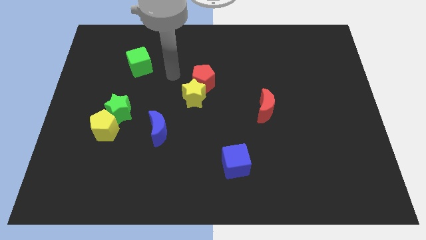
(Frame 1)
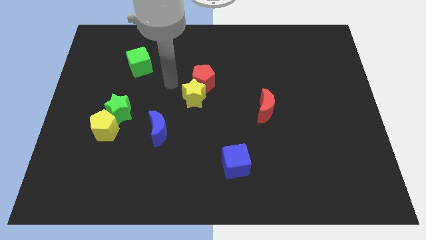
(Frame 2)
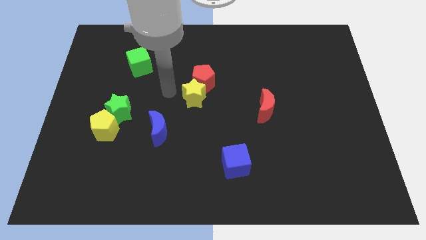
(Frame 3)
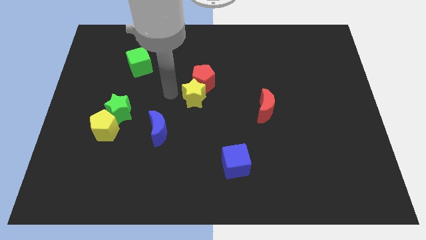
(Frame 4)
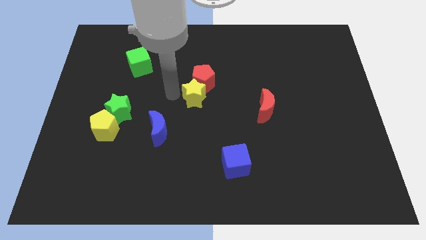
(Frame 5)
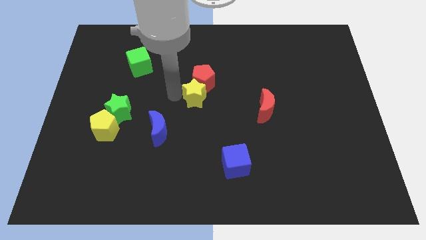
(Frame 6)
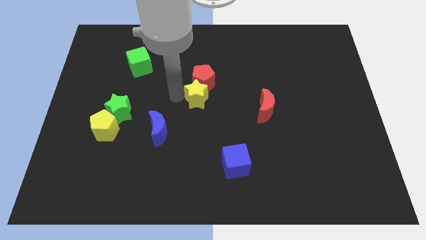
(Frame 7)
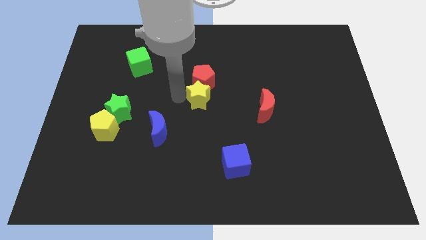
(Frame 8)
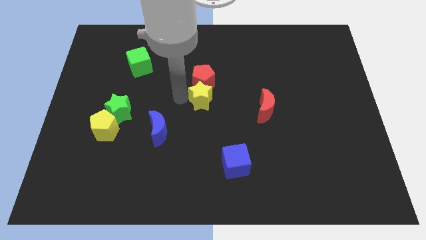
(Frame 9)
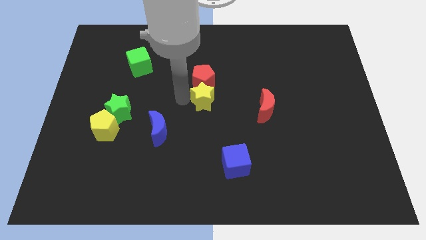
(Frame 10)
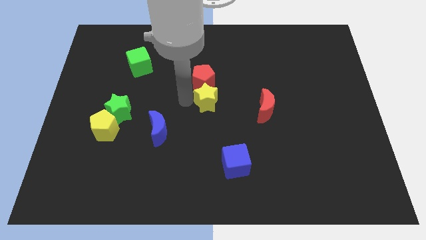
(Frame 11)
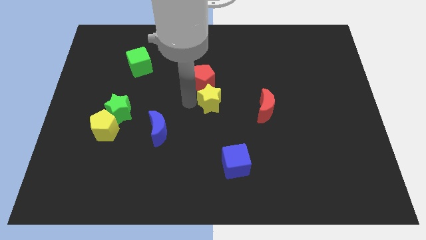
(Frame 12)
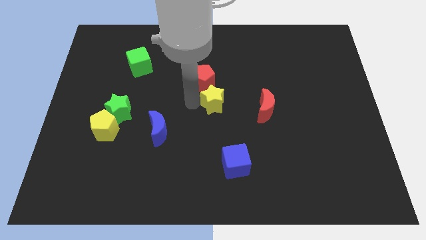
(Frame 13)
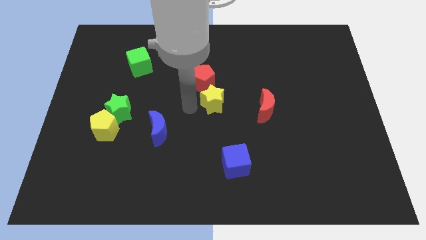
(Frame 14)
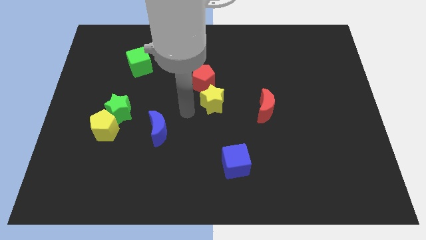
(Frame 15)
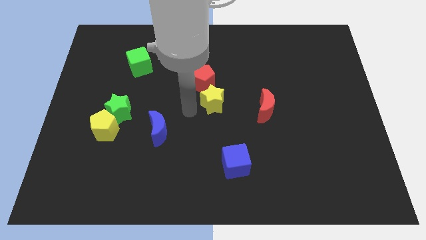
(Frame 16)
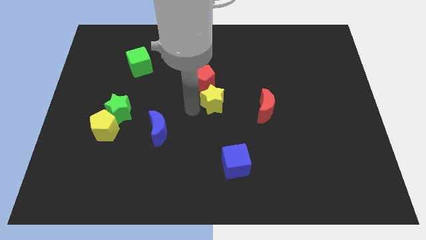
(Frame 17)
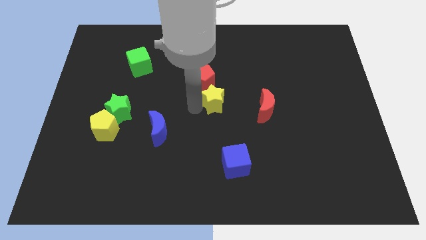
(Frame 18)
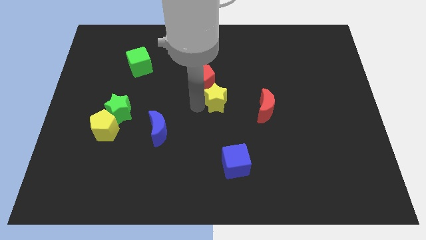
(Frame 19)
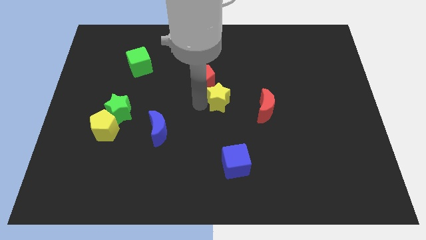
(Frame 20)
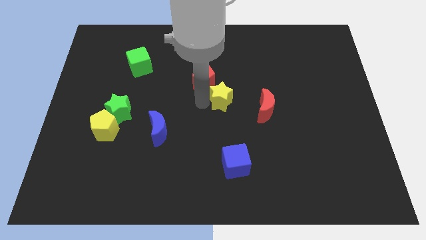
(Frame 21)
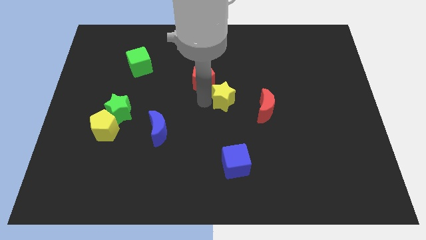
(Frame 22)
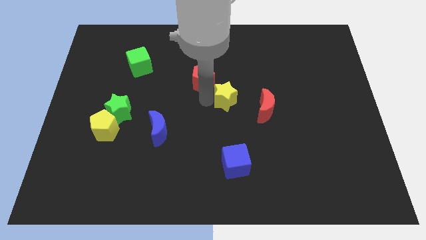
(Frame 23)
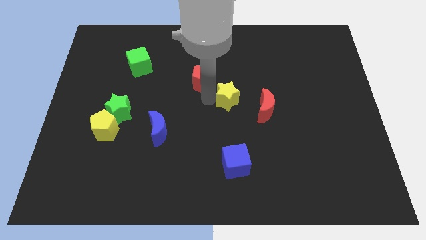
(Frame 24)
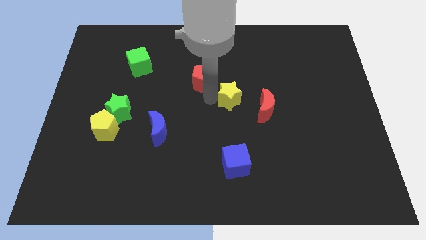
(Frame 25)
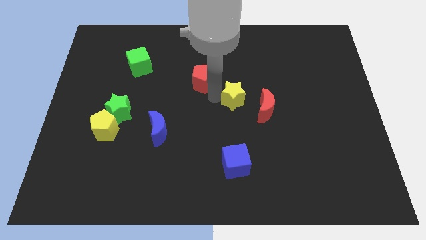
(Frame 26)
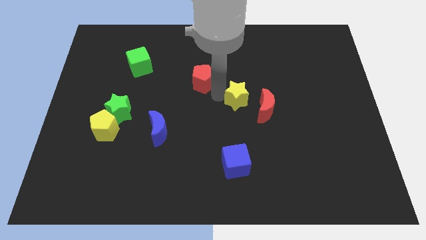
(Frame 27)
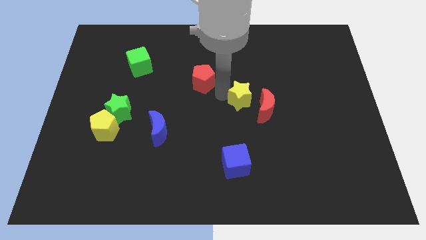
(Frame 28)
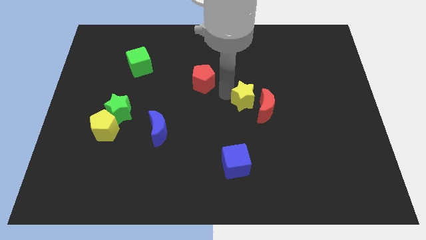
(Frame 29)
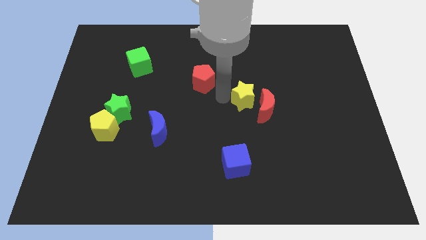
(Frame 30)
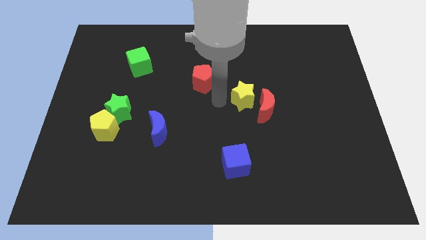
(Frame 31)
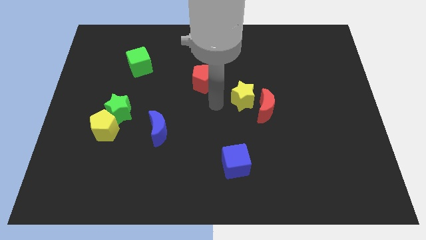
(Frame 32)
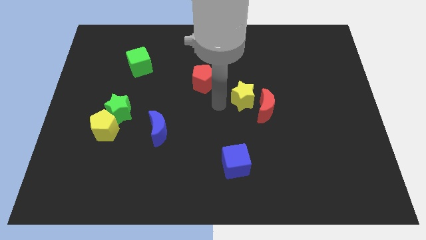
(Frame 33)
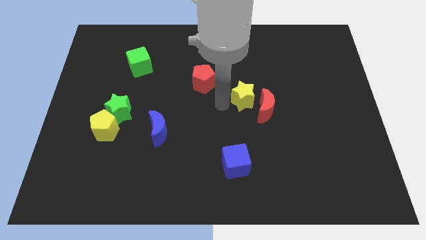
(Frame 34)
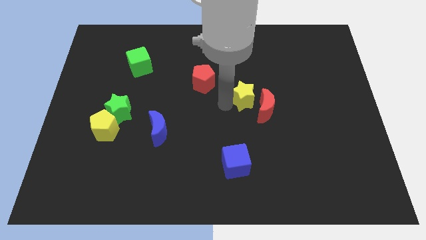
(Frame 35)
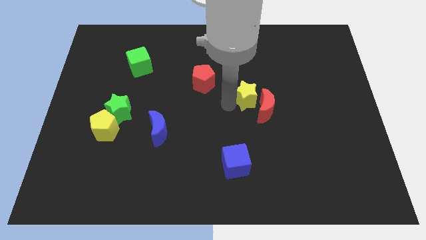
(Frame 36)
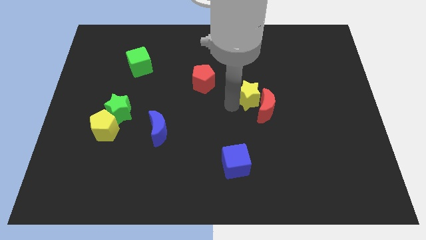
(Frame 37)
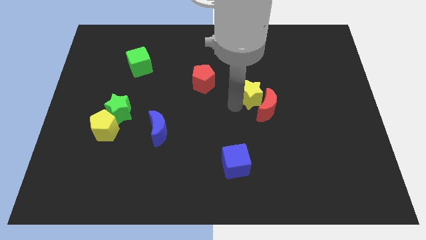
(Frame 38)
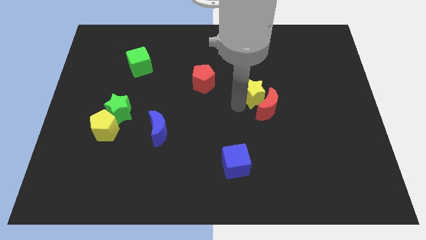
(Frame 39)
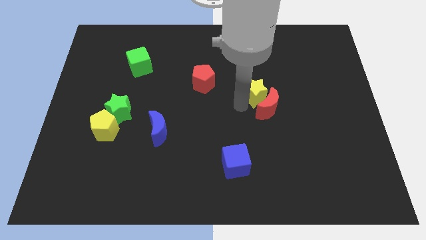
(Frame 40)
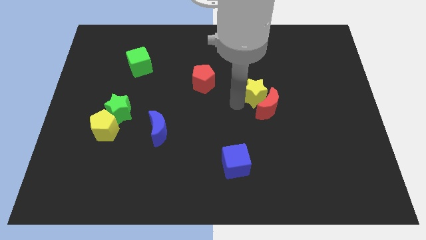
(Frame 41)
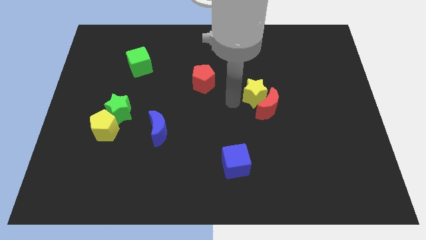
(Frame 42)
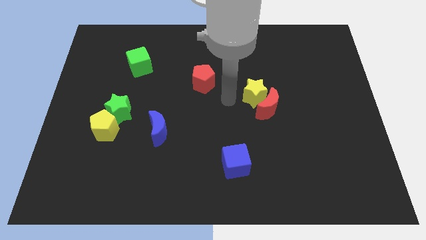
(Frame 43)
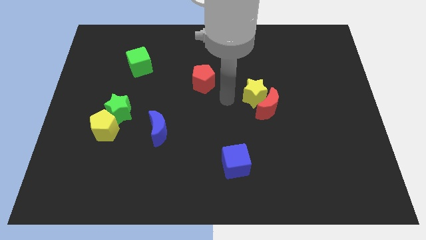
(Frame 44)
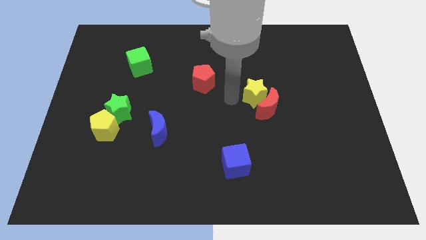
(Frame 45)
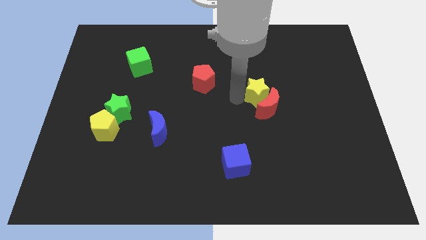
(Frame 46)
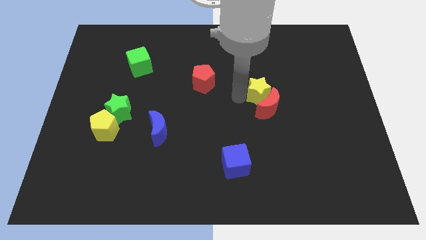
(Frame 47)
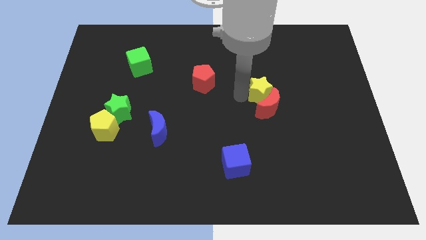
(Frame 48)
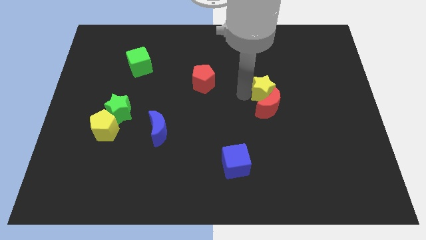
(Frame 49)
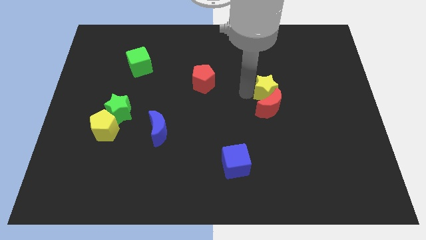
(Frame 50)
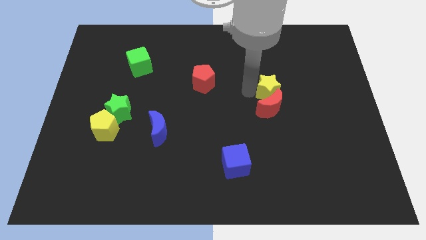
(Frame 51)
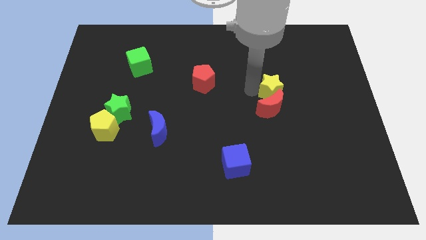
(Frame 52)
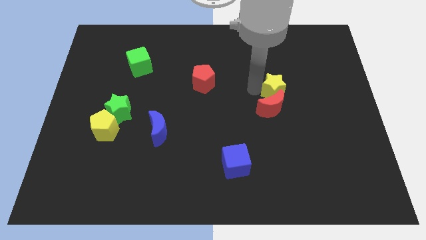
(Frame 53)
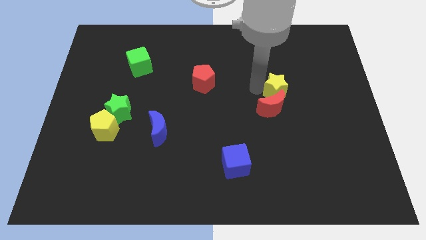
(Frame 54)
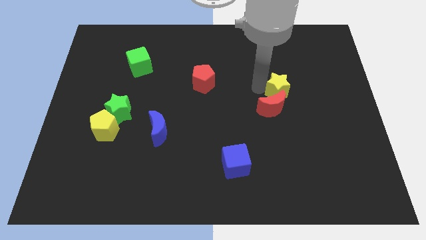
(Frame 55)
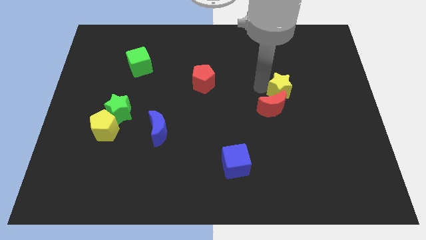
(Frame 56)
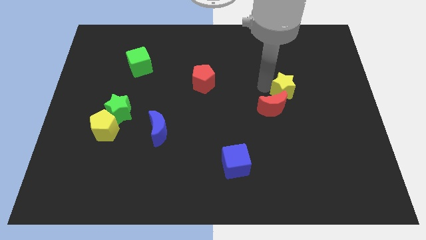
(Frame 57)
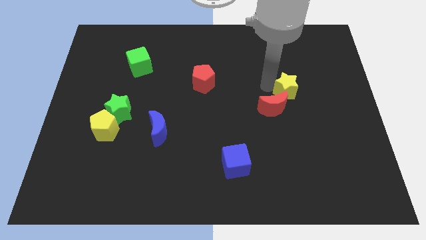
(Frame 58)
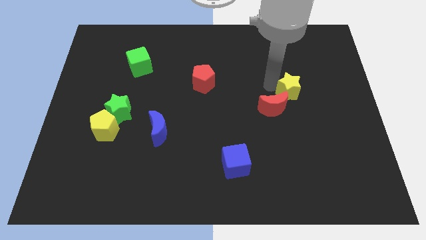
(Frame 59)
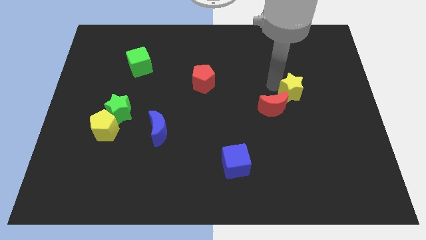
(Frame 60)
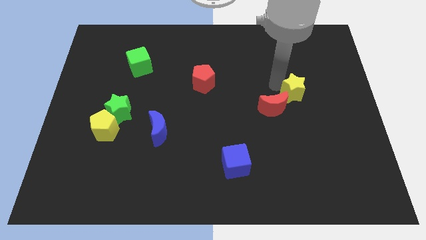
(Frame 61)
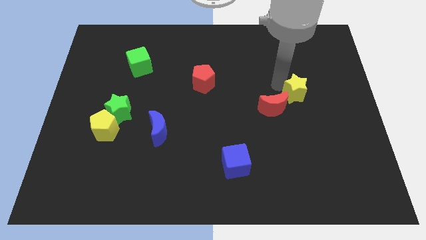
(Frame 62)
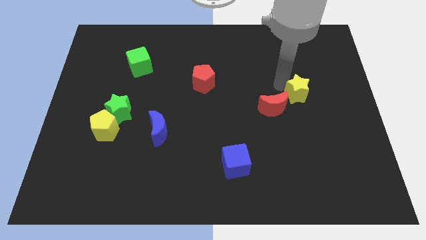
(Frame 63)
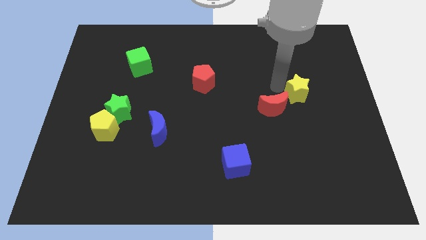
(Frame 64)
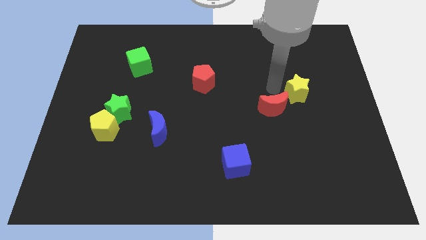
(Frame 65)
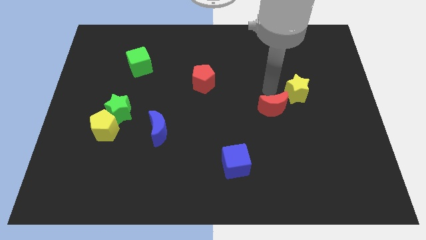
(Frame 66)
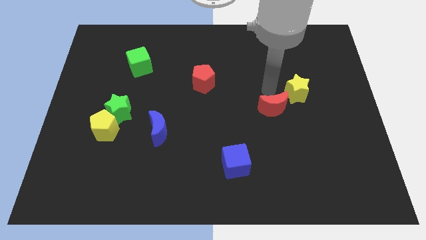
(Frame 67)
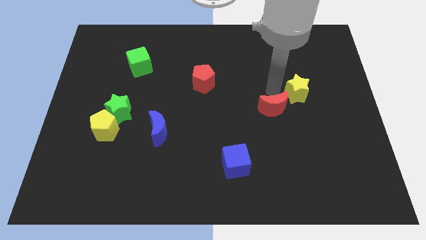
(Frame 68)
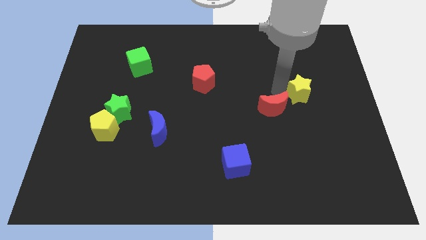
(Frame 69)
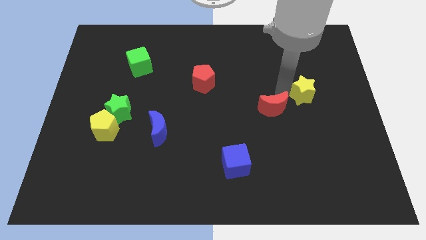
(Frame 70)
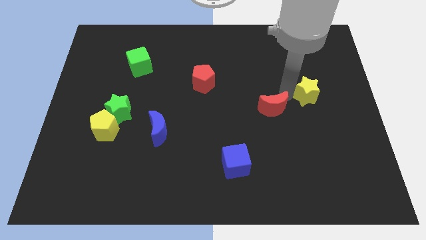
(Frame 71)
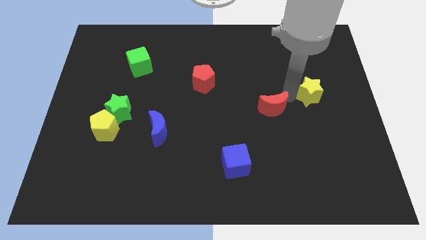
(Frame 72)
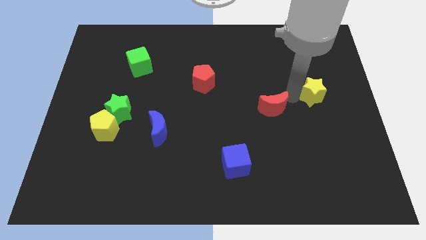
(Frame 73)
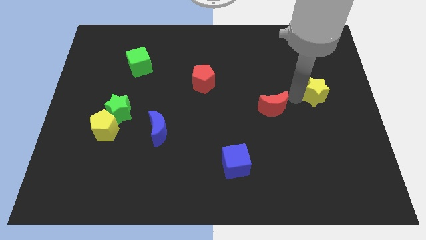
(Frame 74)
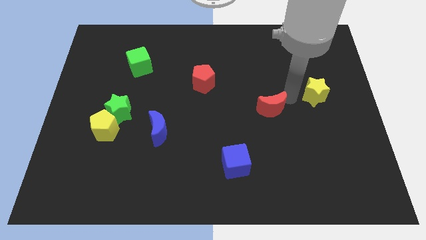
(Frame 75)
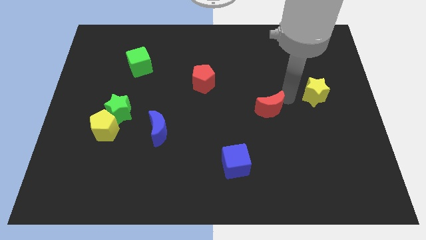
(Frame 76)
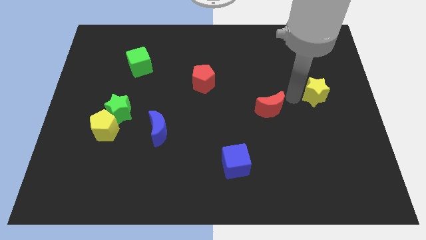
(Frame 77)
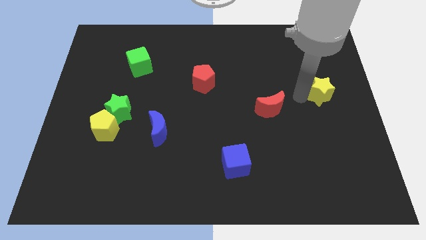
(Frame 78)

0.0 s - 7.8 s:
move the yellow star to the right side of the board
